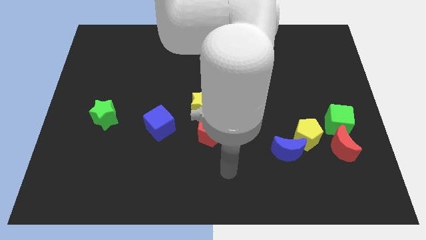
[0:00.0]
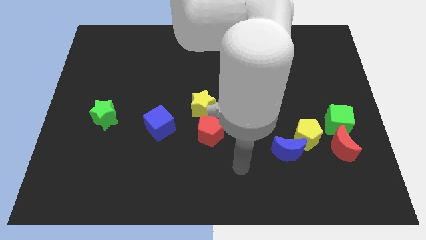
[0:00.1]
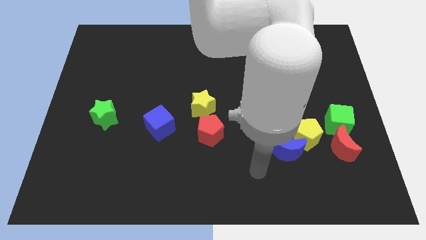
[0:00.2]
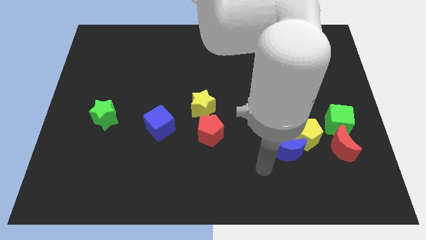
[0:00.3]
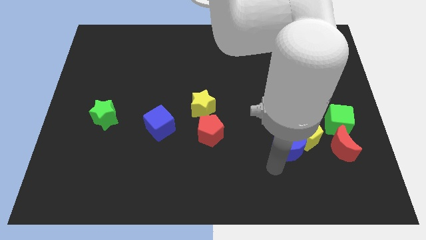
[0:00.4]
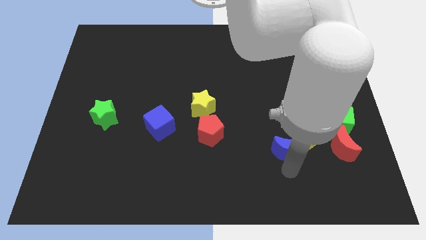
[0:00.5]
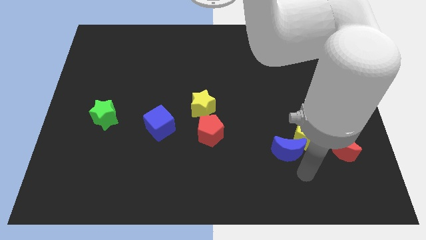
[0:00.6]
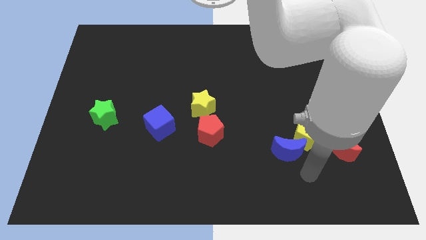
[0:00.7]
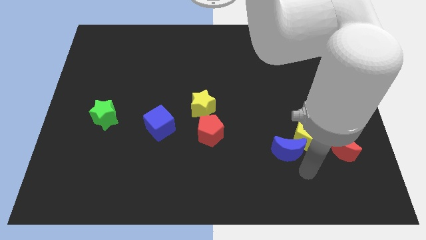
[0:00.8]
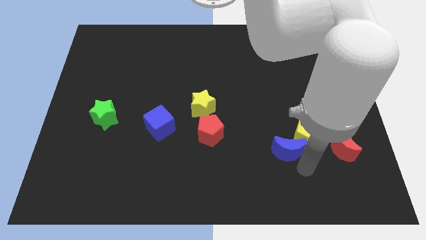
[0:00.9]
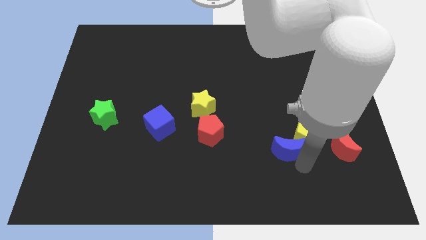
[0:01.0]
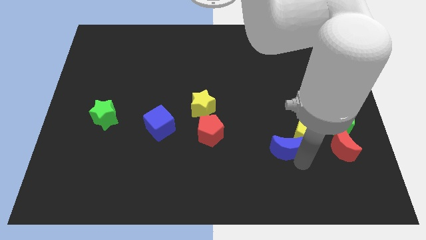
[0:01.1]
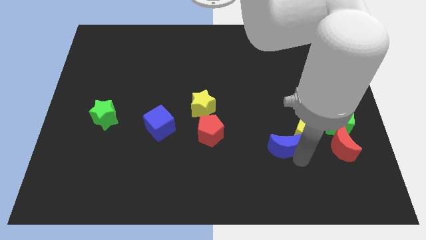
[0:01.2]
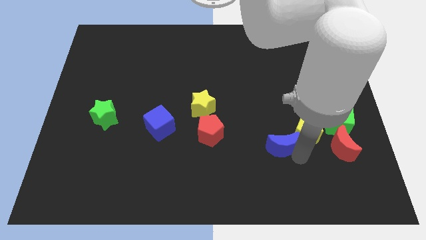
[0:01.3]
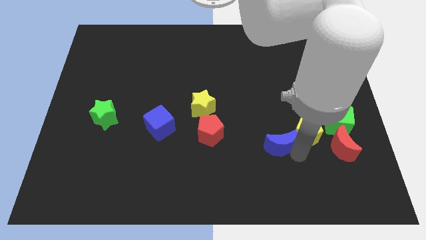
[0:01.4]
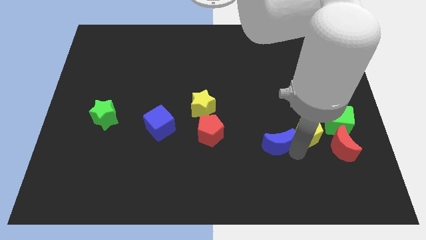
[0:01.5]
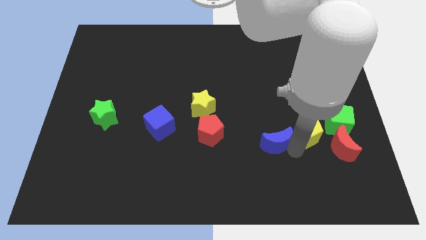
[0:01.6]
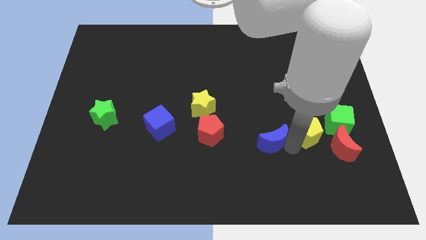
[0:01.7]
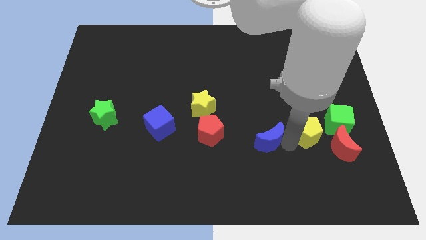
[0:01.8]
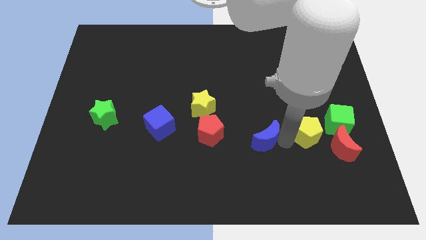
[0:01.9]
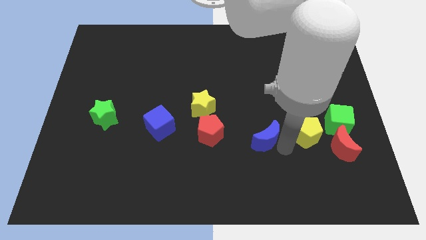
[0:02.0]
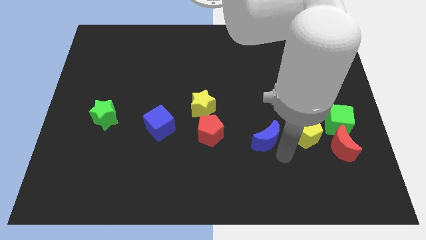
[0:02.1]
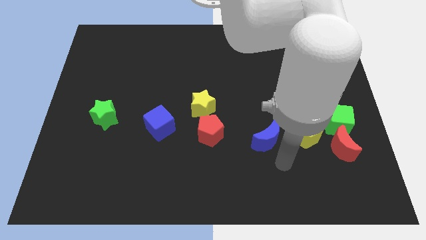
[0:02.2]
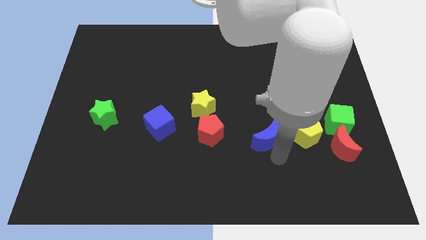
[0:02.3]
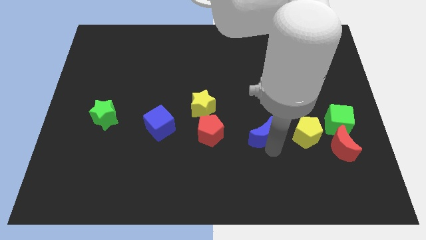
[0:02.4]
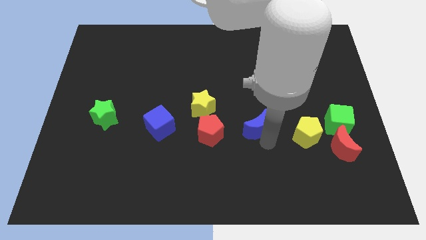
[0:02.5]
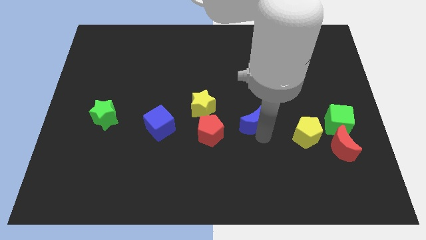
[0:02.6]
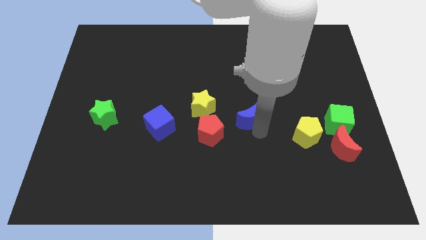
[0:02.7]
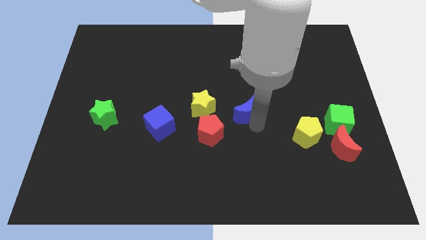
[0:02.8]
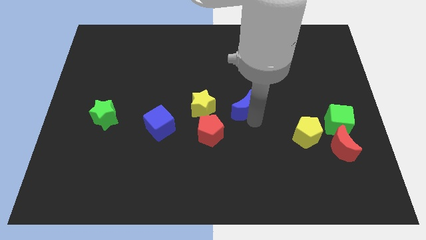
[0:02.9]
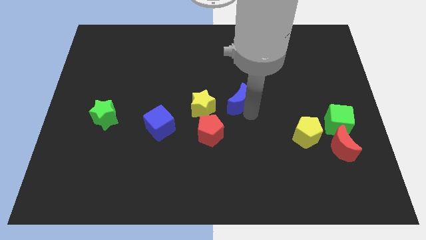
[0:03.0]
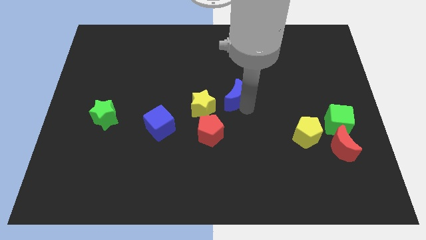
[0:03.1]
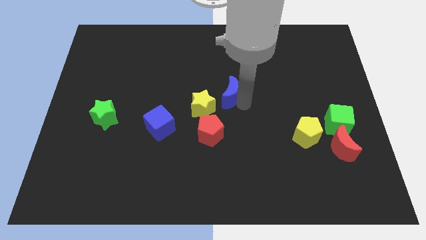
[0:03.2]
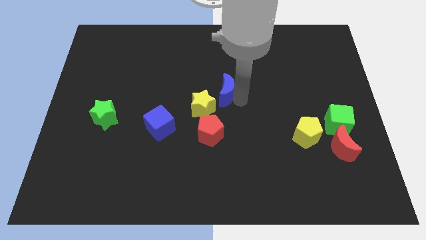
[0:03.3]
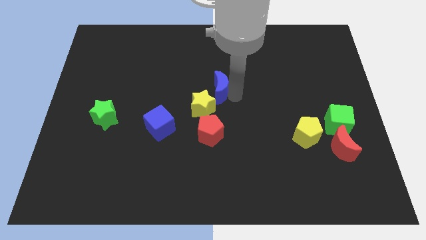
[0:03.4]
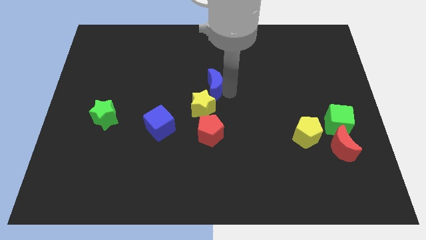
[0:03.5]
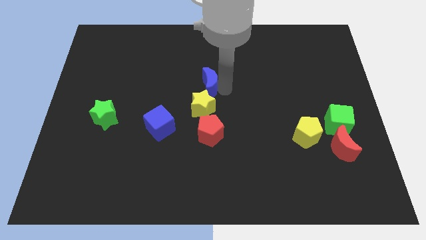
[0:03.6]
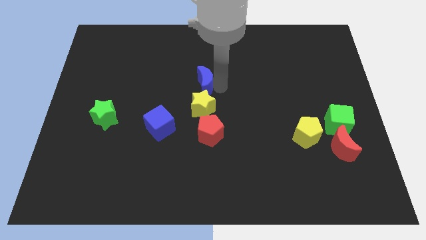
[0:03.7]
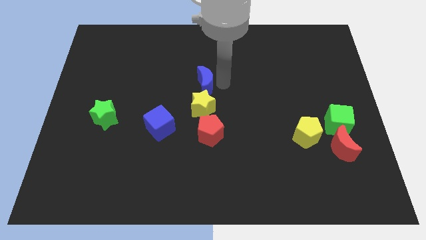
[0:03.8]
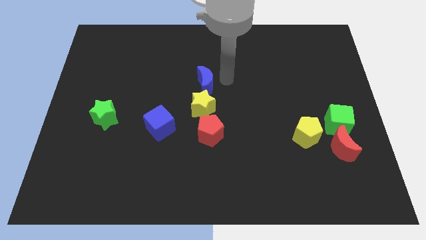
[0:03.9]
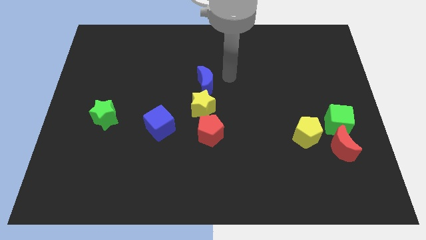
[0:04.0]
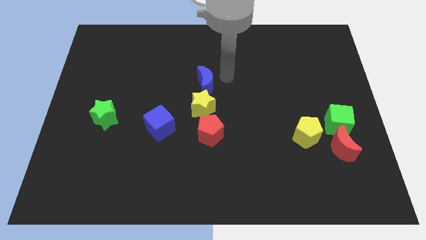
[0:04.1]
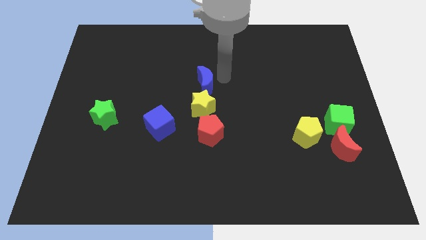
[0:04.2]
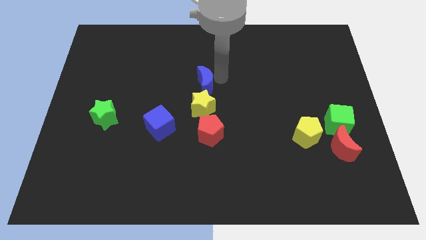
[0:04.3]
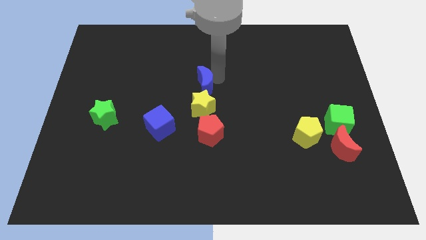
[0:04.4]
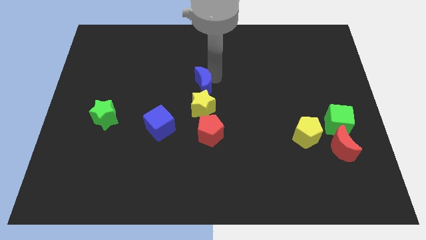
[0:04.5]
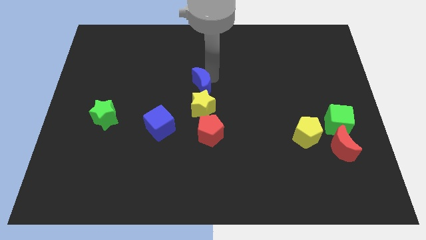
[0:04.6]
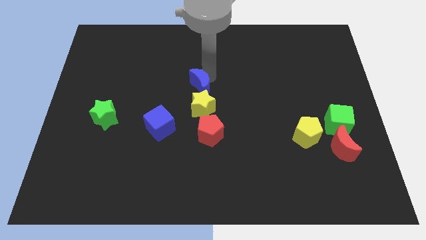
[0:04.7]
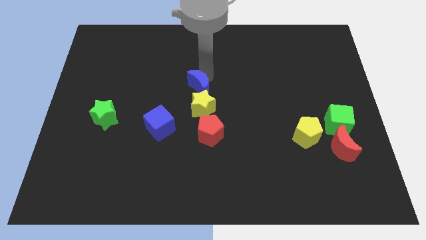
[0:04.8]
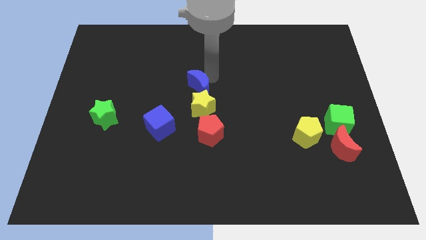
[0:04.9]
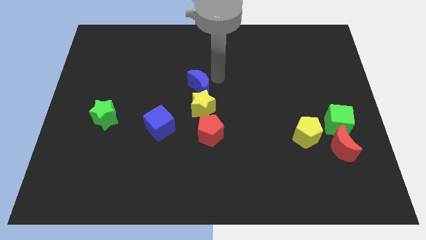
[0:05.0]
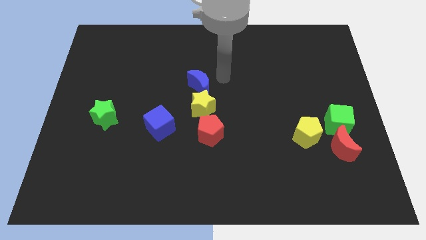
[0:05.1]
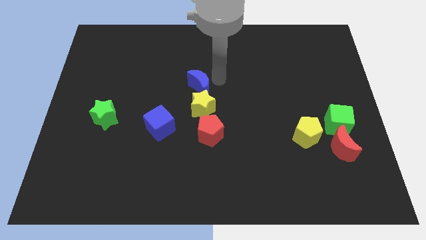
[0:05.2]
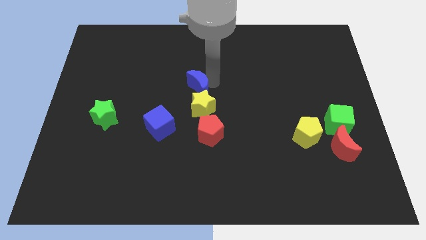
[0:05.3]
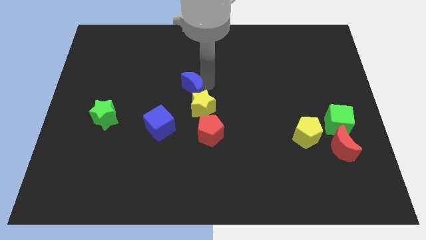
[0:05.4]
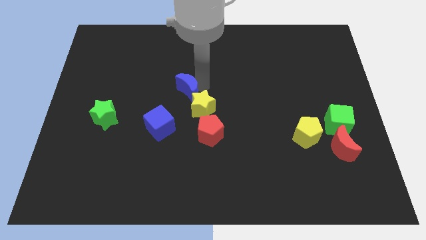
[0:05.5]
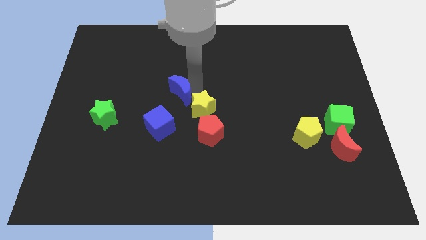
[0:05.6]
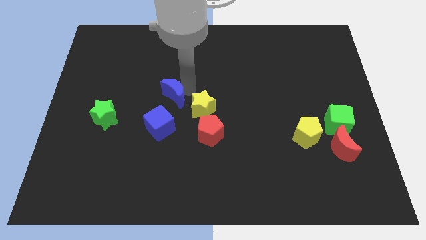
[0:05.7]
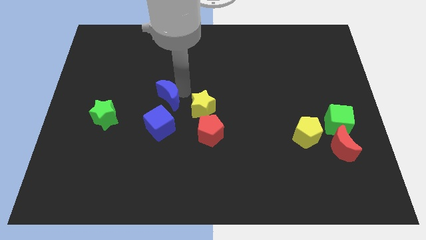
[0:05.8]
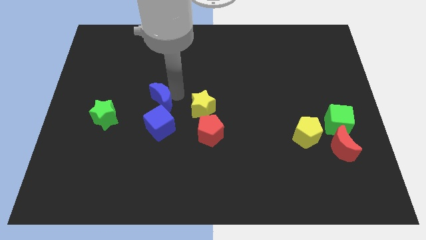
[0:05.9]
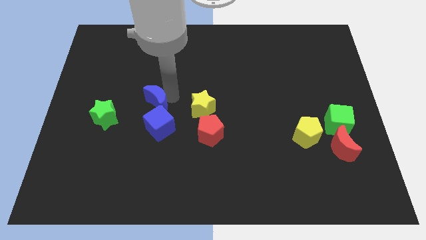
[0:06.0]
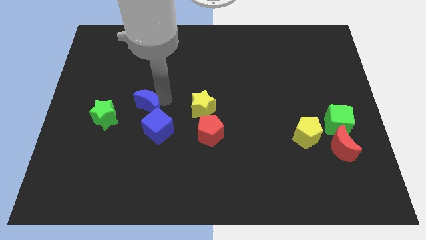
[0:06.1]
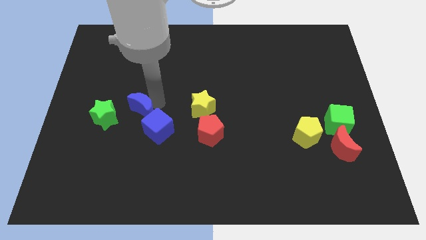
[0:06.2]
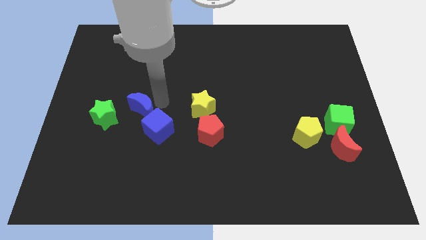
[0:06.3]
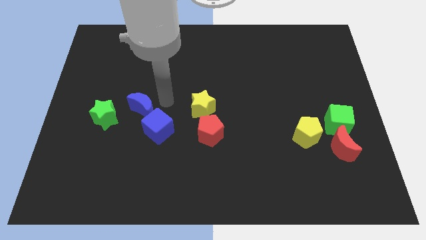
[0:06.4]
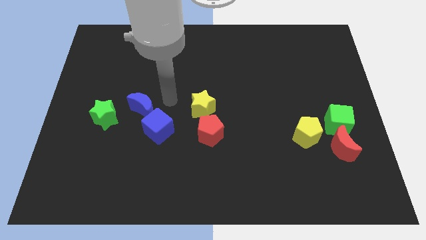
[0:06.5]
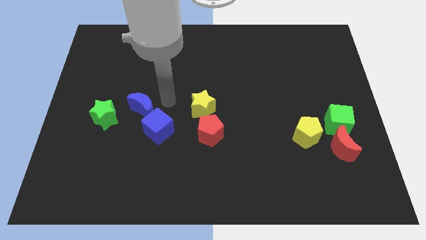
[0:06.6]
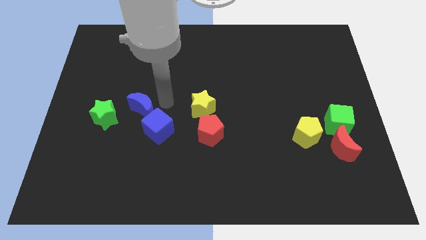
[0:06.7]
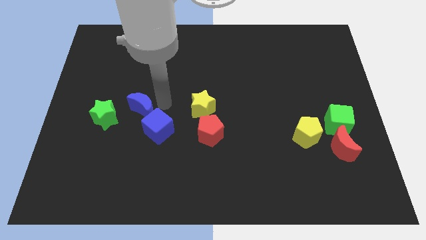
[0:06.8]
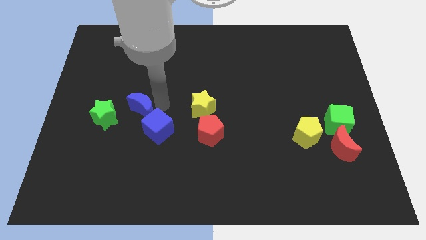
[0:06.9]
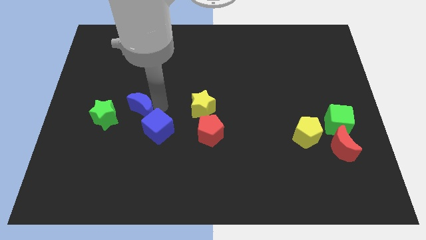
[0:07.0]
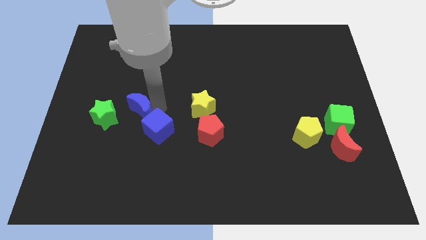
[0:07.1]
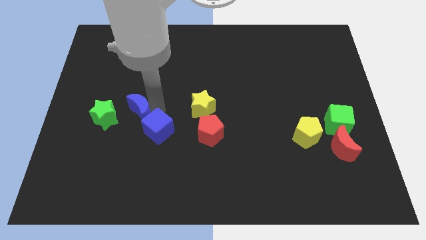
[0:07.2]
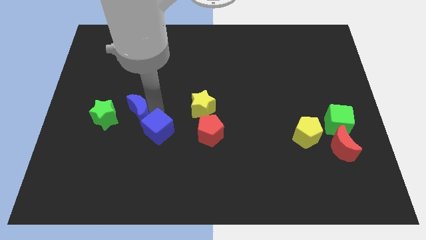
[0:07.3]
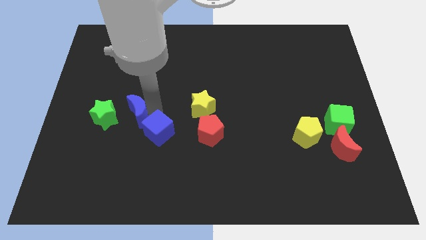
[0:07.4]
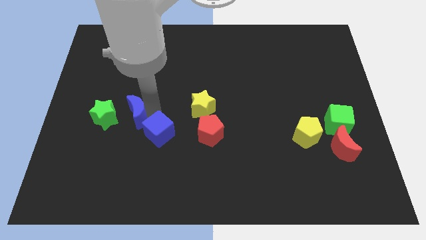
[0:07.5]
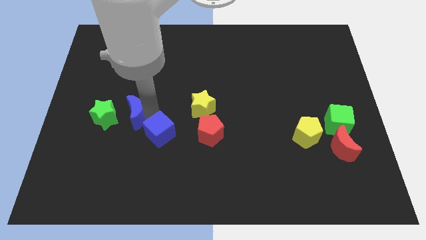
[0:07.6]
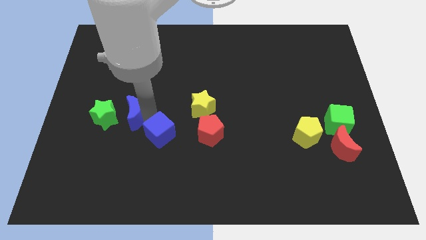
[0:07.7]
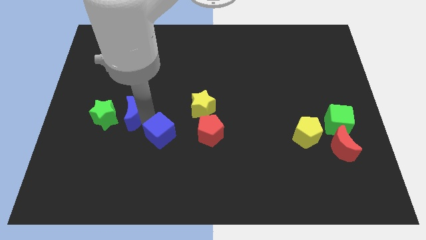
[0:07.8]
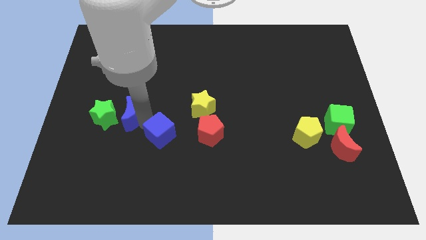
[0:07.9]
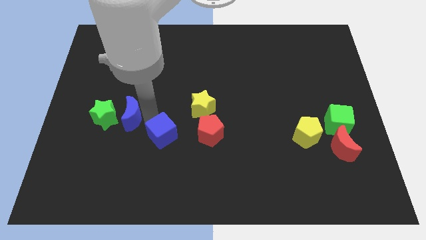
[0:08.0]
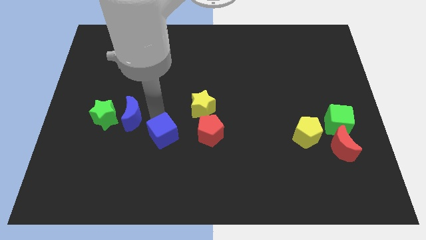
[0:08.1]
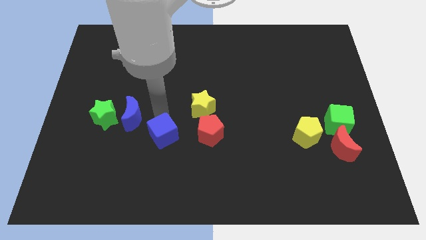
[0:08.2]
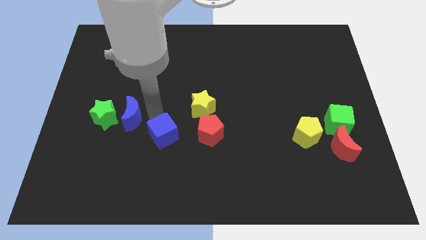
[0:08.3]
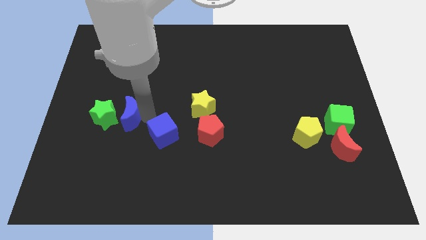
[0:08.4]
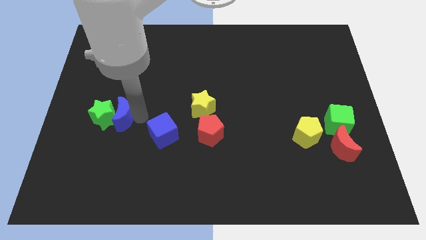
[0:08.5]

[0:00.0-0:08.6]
push the blue moon to the green star
